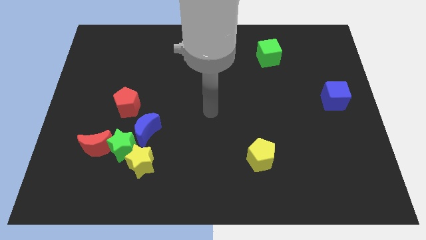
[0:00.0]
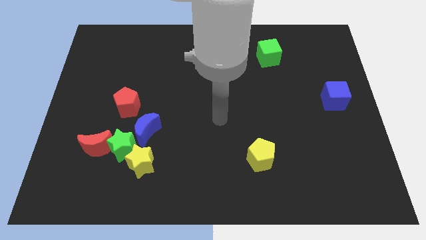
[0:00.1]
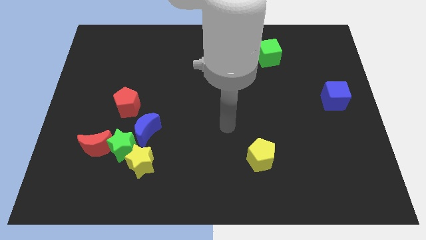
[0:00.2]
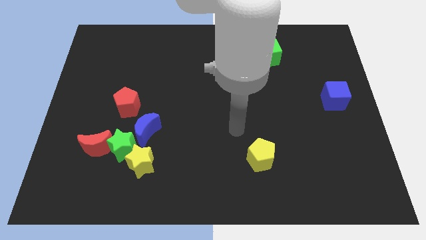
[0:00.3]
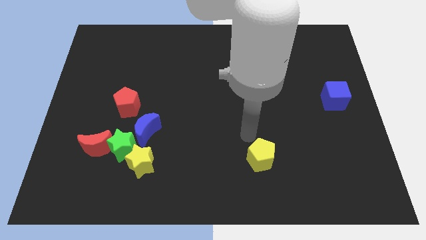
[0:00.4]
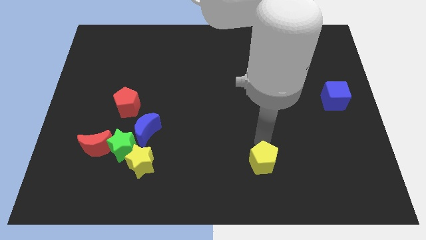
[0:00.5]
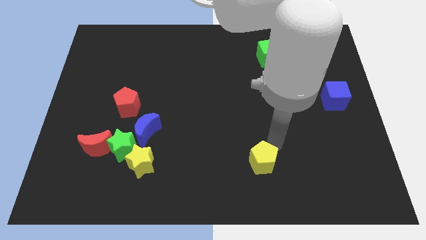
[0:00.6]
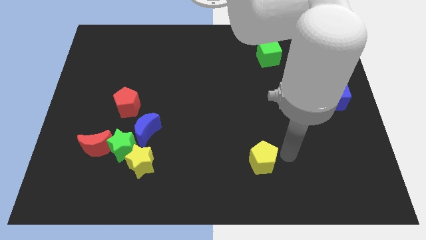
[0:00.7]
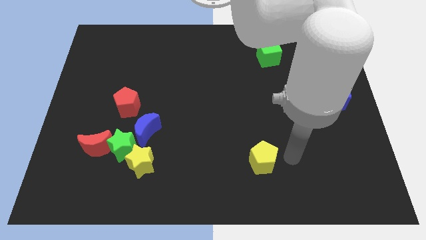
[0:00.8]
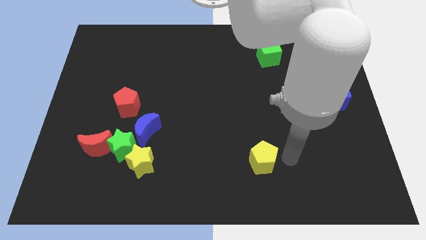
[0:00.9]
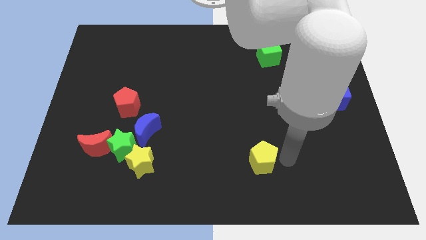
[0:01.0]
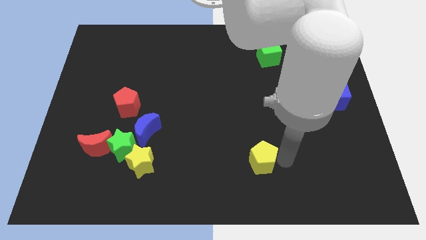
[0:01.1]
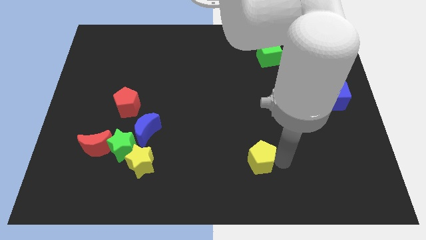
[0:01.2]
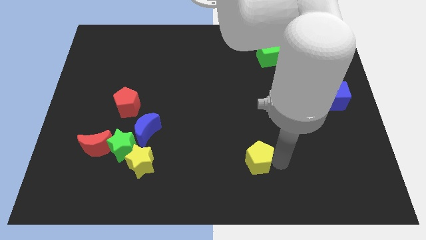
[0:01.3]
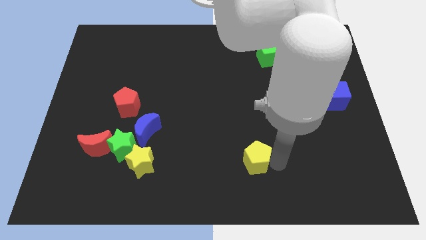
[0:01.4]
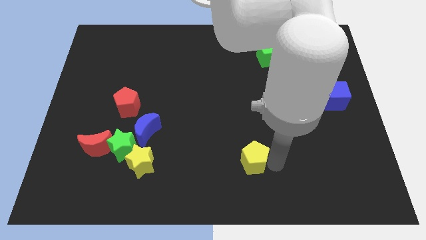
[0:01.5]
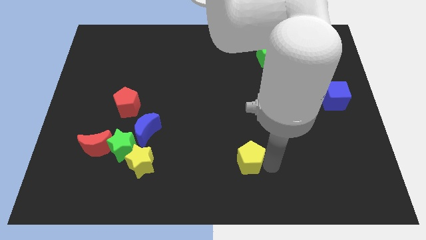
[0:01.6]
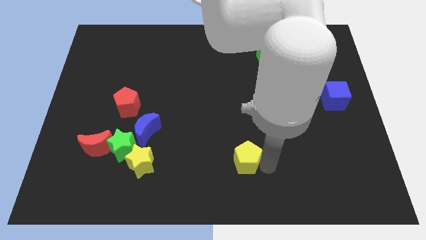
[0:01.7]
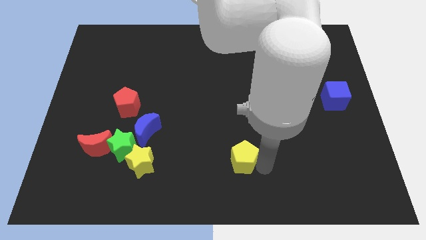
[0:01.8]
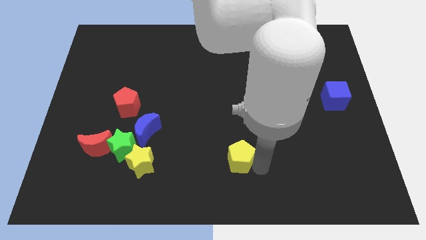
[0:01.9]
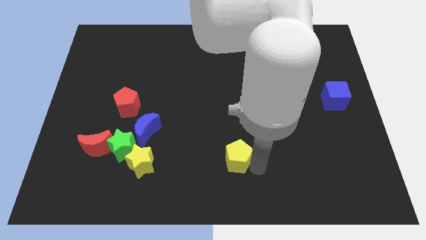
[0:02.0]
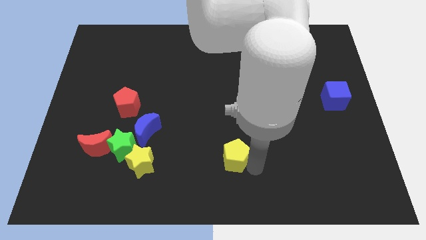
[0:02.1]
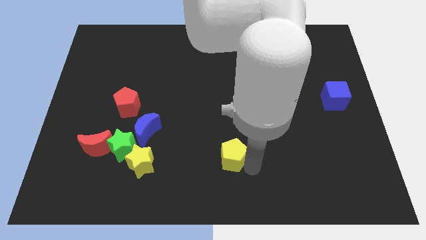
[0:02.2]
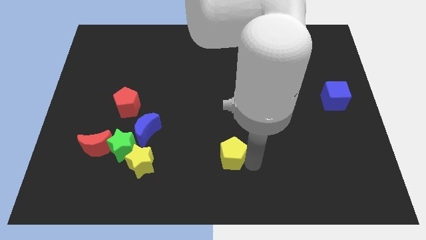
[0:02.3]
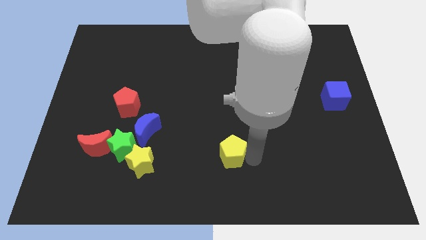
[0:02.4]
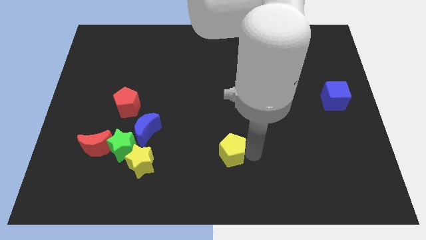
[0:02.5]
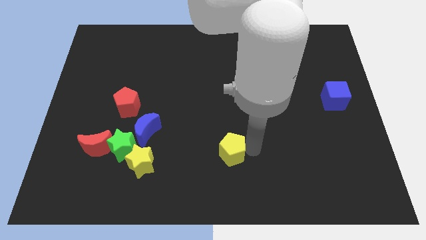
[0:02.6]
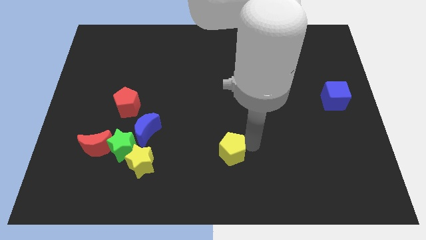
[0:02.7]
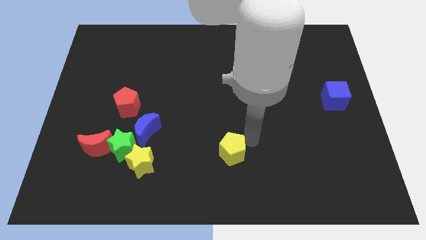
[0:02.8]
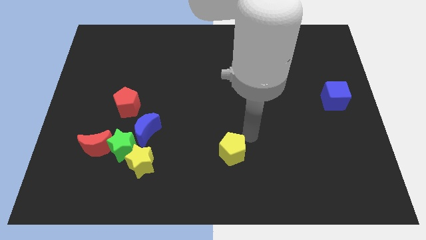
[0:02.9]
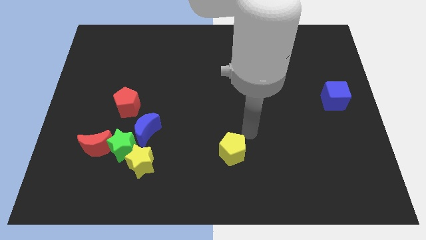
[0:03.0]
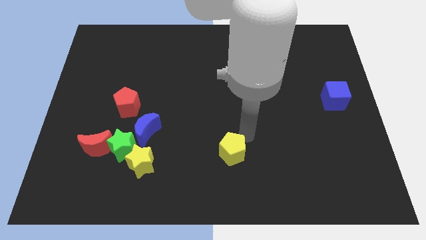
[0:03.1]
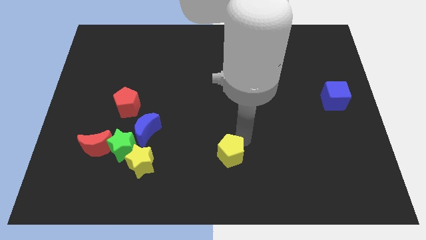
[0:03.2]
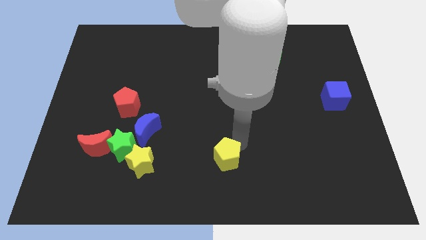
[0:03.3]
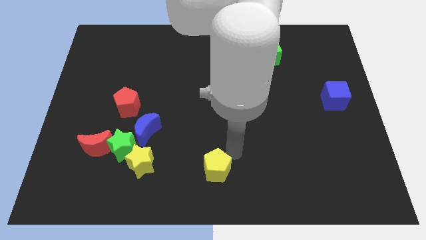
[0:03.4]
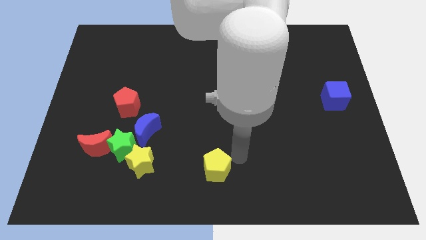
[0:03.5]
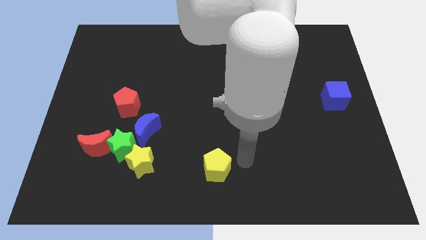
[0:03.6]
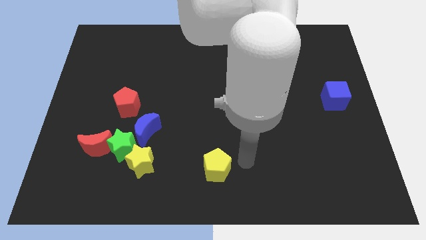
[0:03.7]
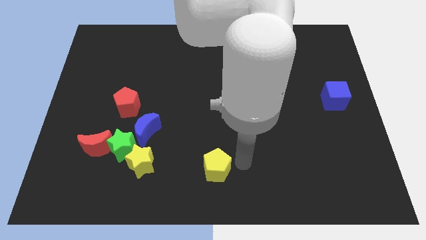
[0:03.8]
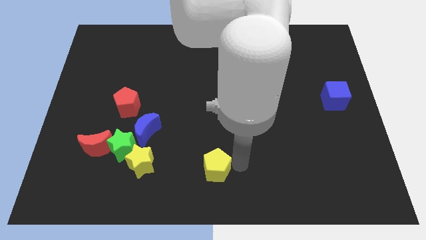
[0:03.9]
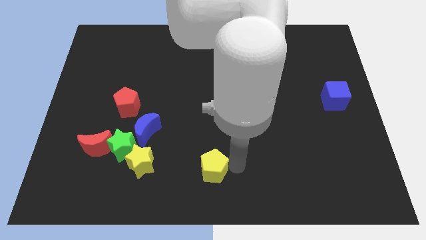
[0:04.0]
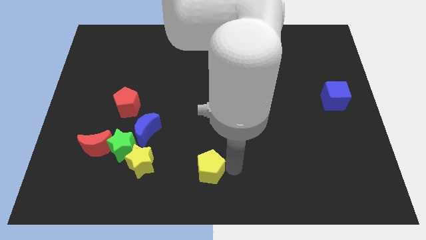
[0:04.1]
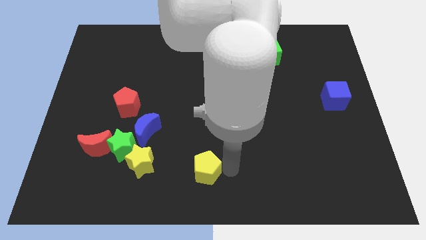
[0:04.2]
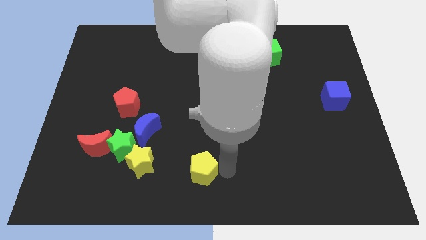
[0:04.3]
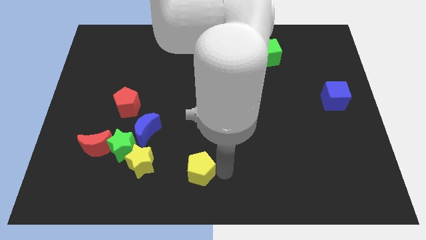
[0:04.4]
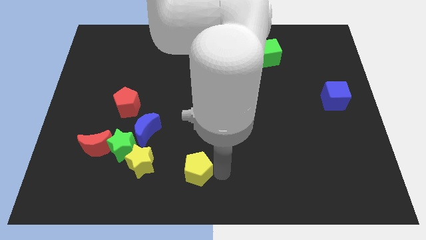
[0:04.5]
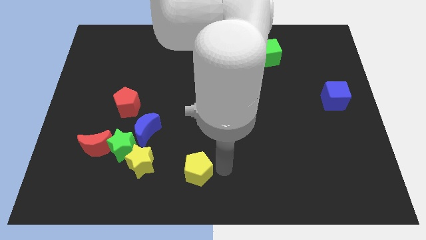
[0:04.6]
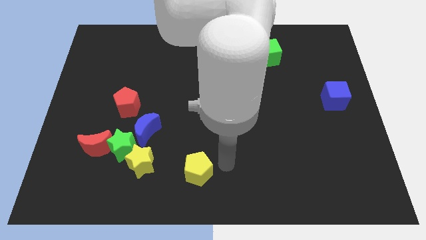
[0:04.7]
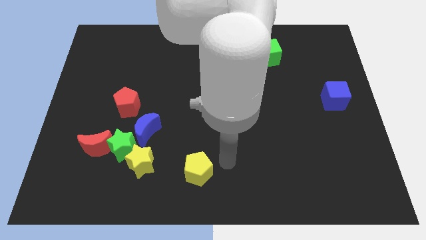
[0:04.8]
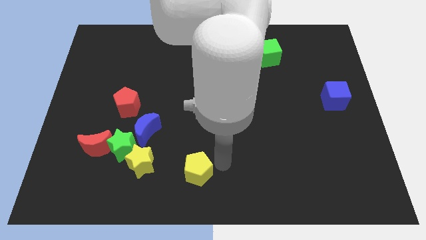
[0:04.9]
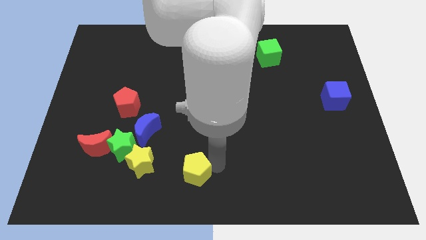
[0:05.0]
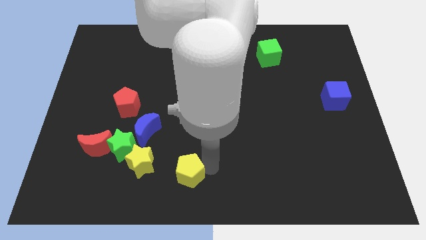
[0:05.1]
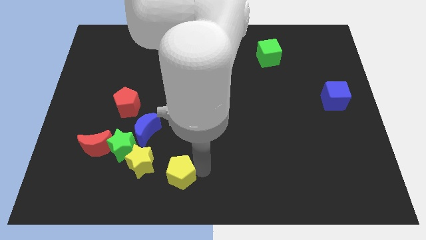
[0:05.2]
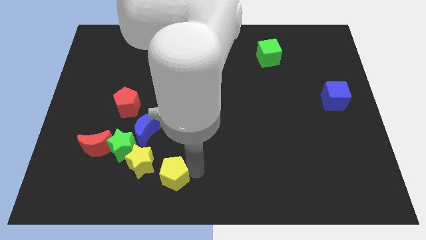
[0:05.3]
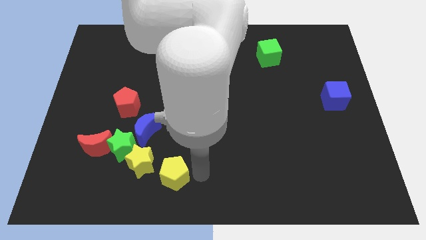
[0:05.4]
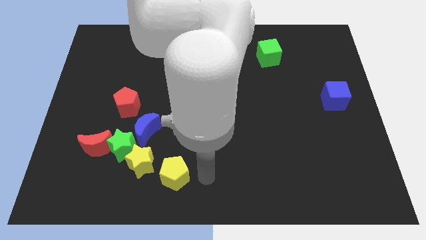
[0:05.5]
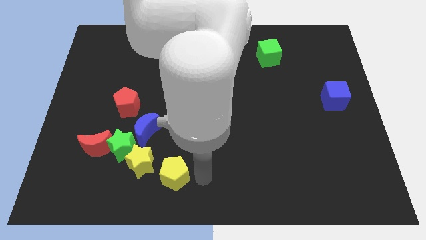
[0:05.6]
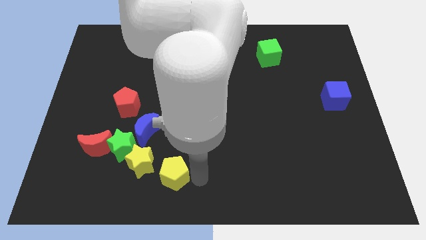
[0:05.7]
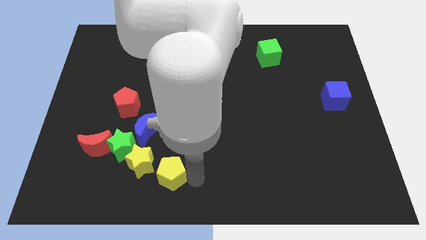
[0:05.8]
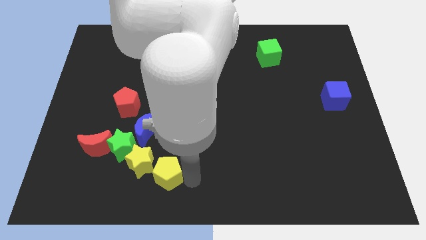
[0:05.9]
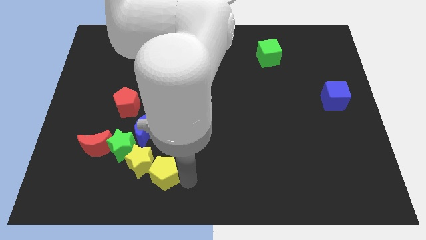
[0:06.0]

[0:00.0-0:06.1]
put the yellow pentagon below the blue moon

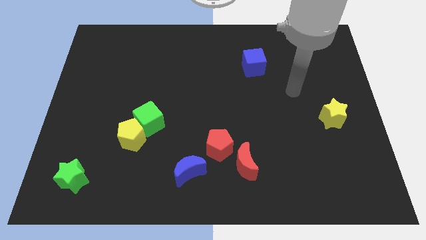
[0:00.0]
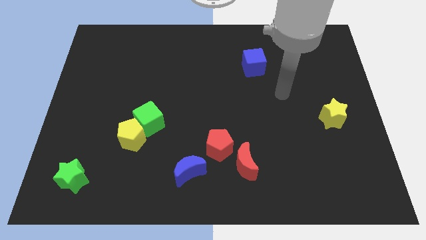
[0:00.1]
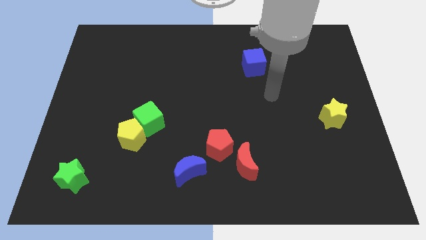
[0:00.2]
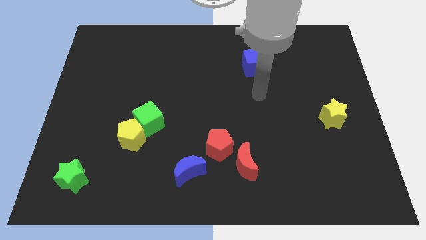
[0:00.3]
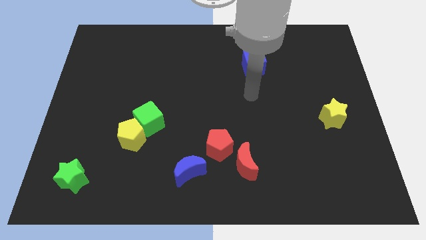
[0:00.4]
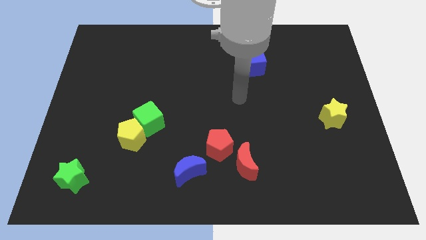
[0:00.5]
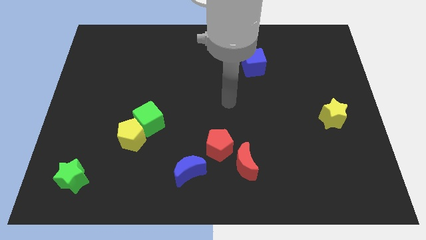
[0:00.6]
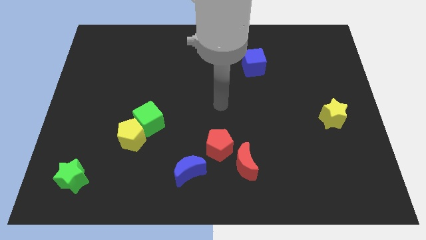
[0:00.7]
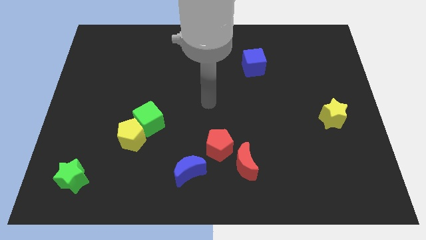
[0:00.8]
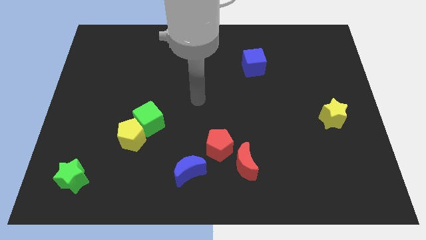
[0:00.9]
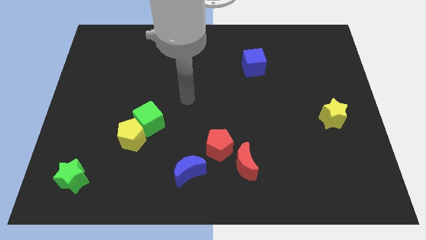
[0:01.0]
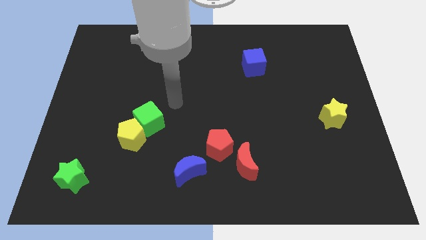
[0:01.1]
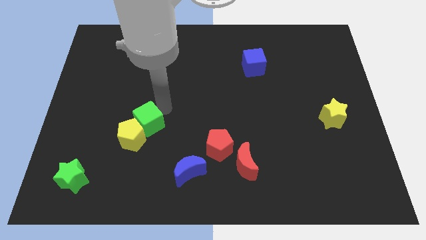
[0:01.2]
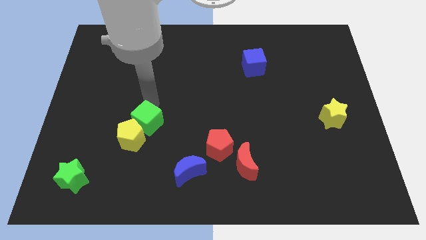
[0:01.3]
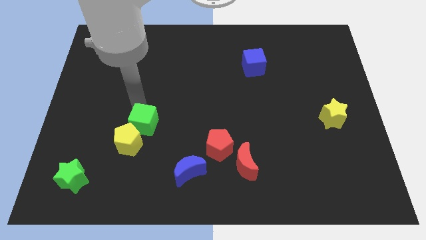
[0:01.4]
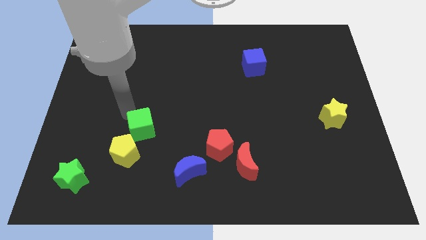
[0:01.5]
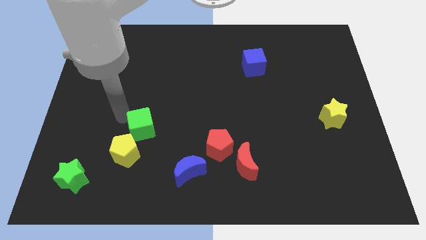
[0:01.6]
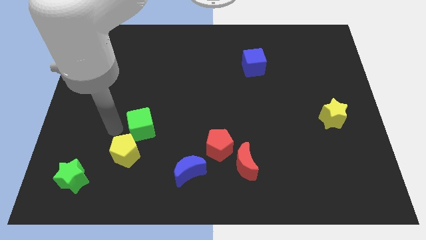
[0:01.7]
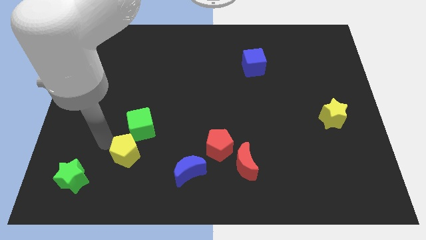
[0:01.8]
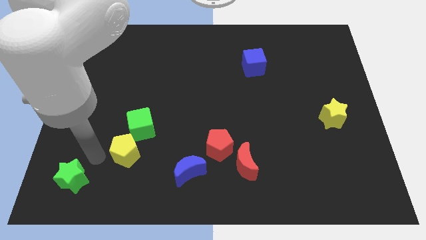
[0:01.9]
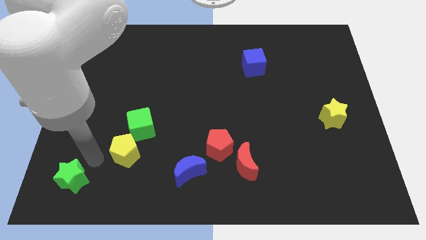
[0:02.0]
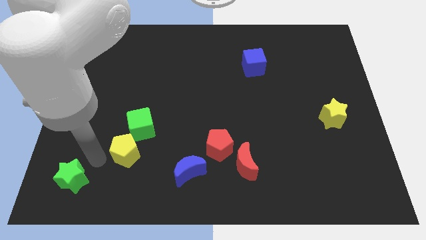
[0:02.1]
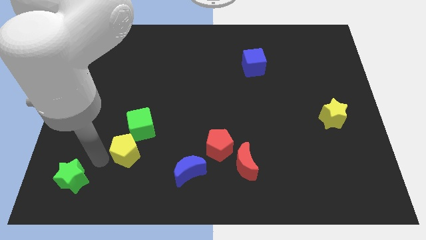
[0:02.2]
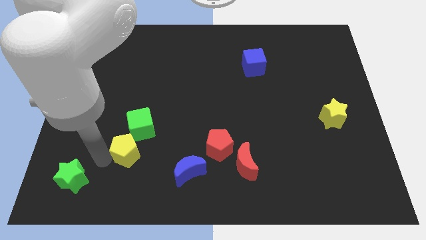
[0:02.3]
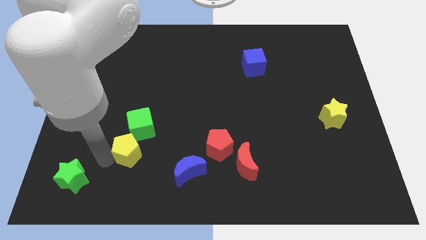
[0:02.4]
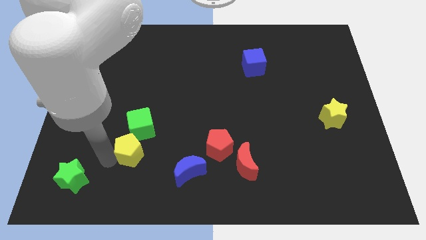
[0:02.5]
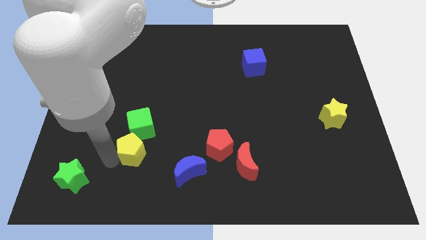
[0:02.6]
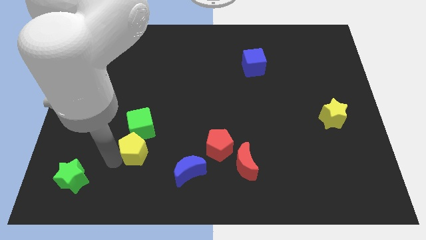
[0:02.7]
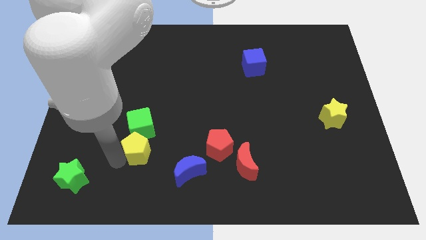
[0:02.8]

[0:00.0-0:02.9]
move the yellow pentagon to the bottom right side of the green cube
